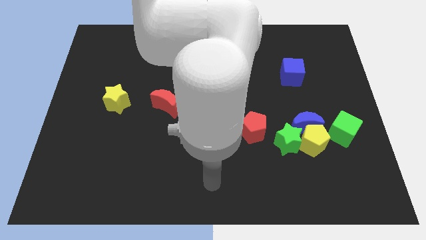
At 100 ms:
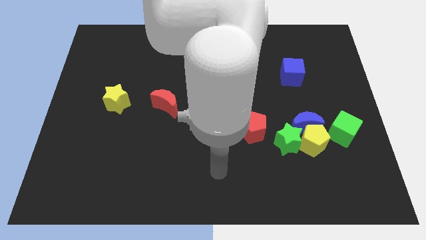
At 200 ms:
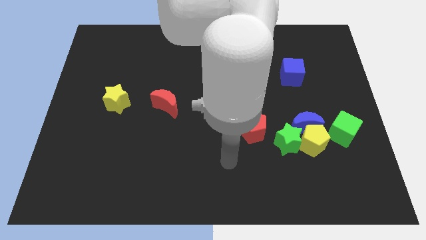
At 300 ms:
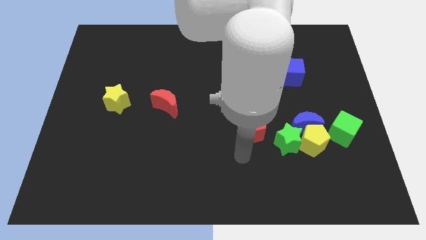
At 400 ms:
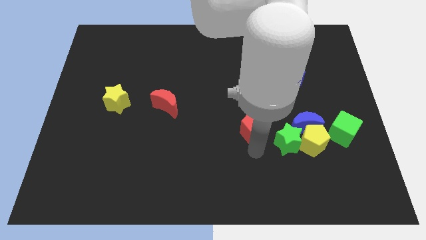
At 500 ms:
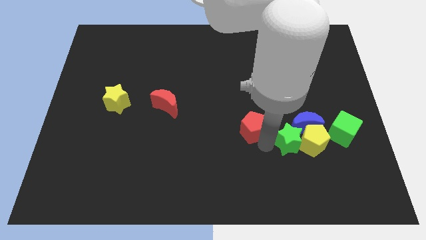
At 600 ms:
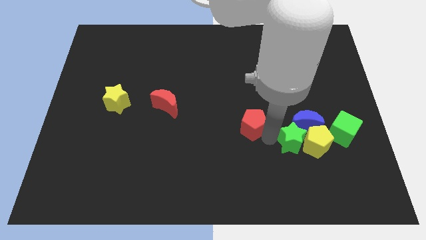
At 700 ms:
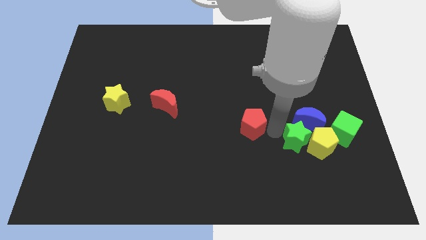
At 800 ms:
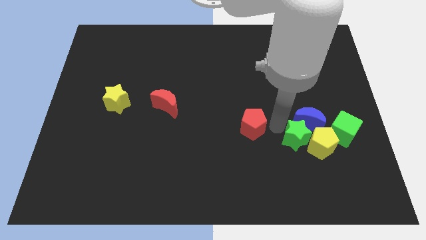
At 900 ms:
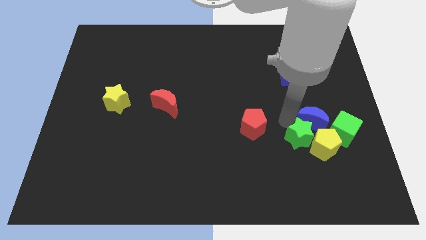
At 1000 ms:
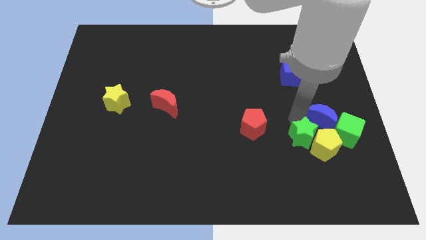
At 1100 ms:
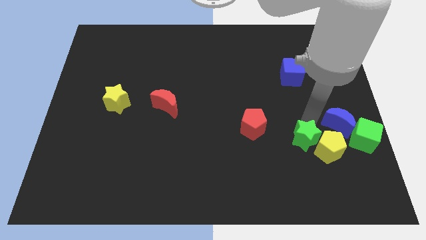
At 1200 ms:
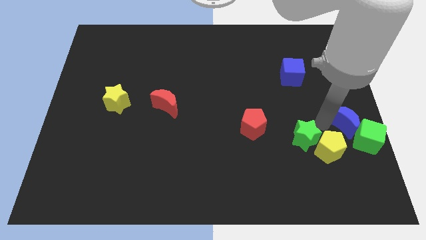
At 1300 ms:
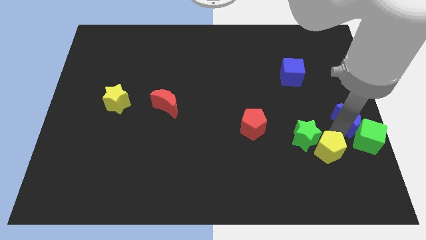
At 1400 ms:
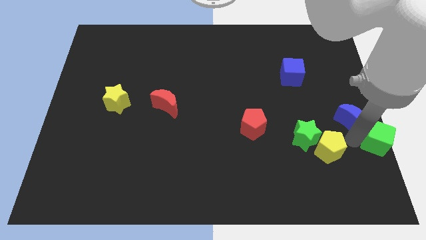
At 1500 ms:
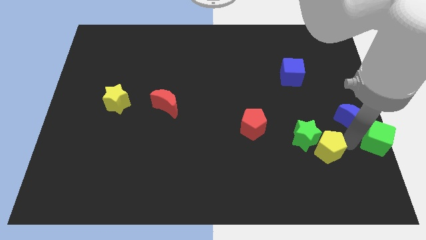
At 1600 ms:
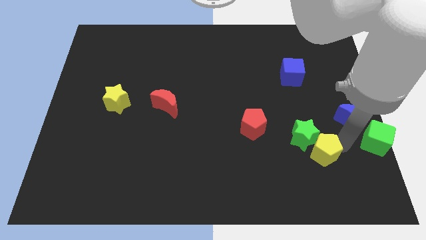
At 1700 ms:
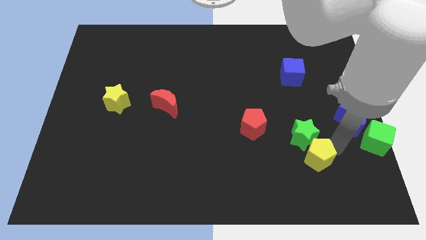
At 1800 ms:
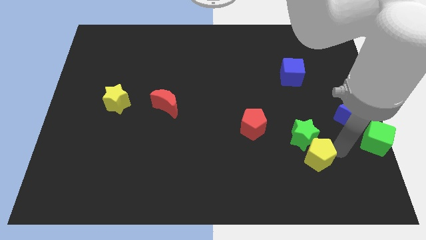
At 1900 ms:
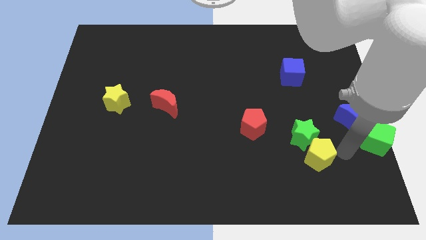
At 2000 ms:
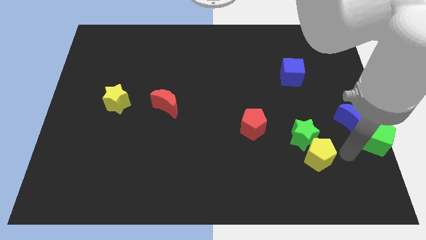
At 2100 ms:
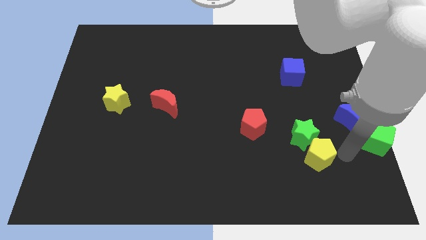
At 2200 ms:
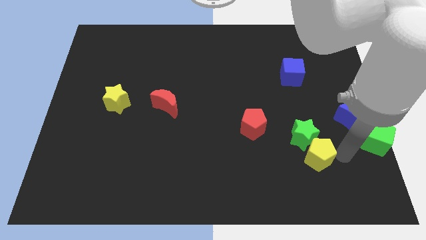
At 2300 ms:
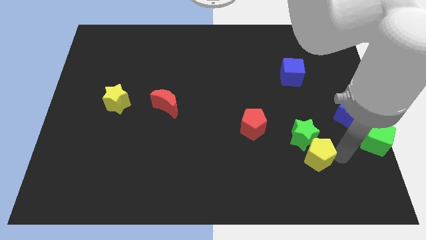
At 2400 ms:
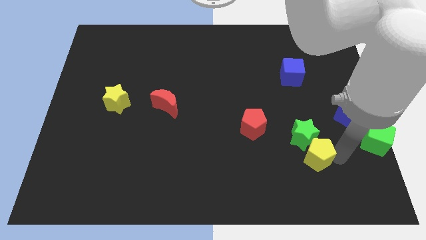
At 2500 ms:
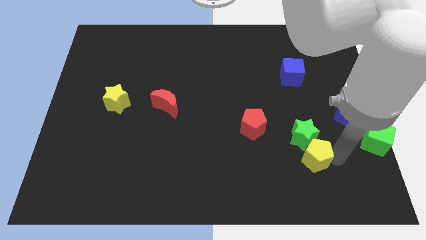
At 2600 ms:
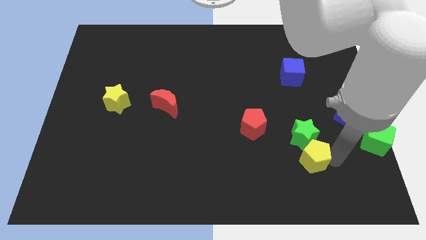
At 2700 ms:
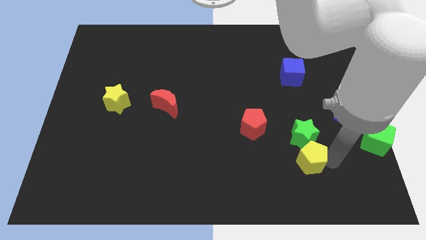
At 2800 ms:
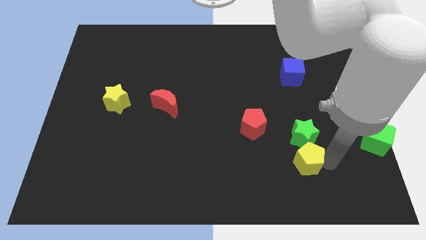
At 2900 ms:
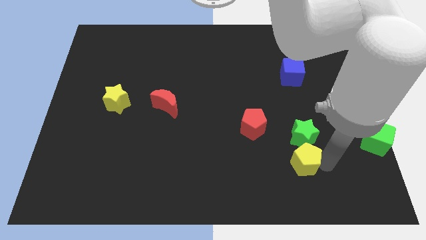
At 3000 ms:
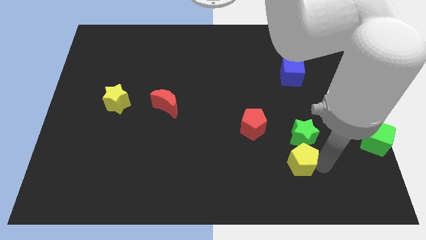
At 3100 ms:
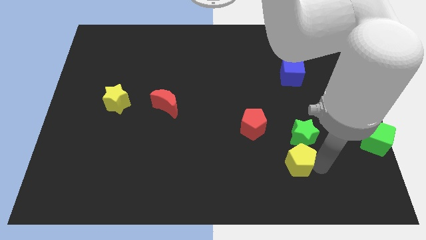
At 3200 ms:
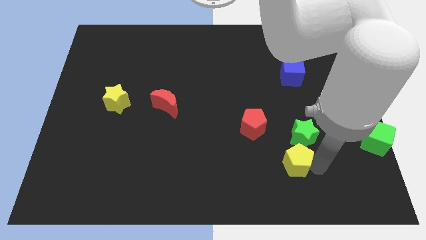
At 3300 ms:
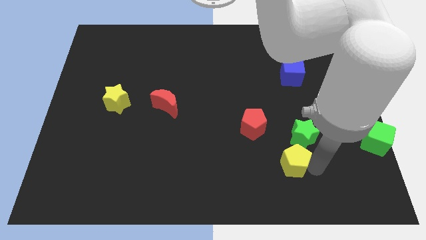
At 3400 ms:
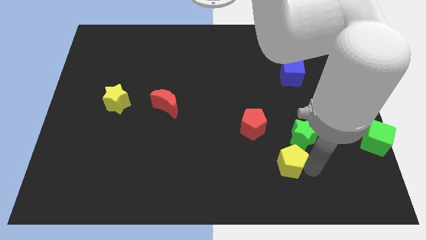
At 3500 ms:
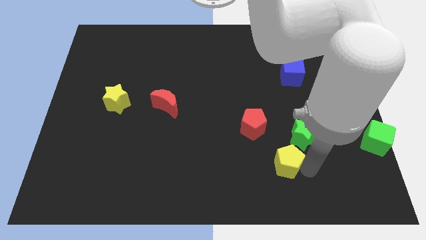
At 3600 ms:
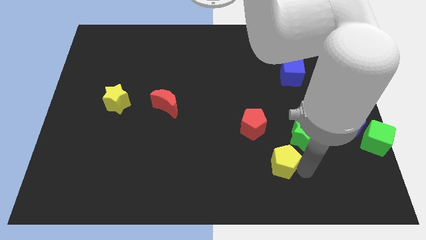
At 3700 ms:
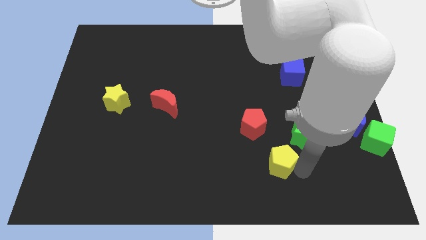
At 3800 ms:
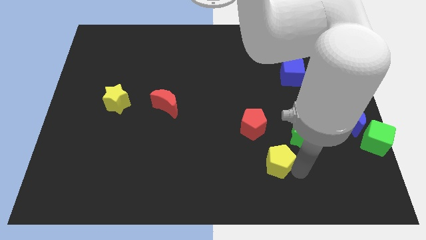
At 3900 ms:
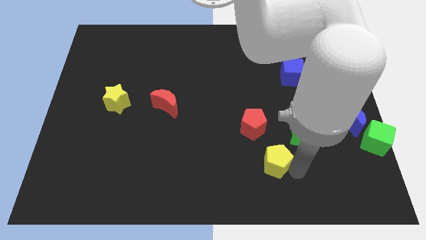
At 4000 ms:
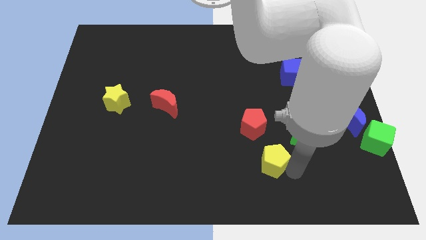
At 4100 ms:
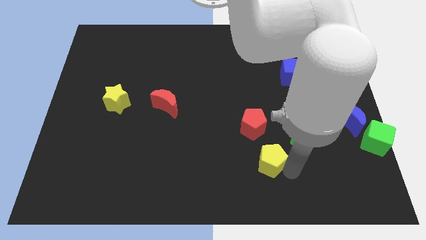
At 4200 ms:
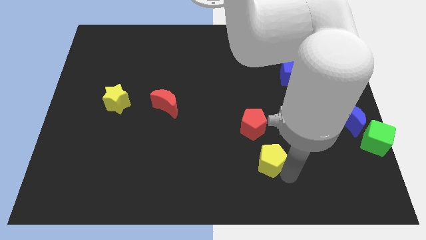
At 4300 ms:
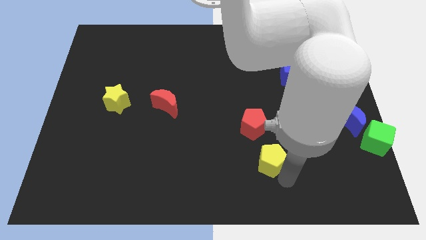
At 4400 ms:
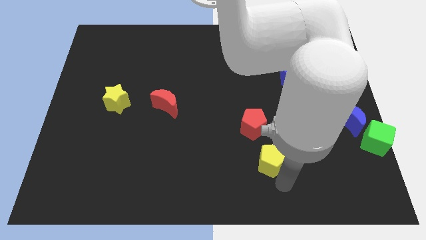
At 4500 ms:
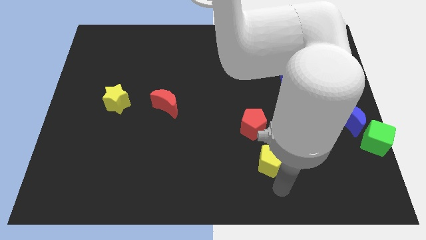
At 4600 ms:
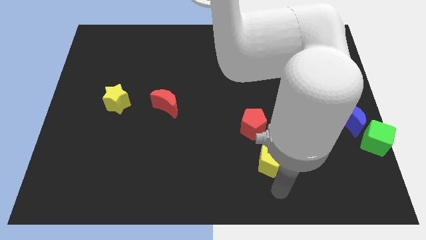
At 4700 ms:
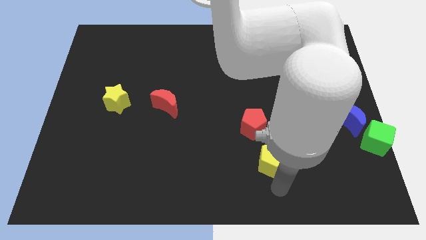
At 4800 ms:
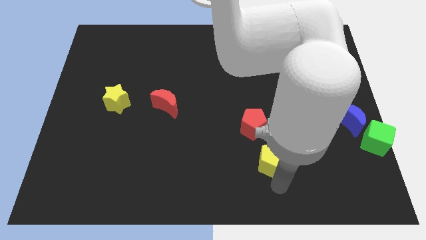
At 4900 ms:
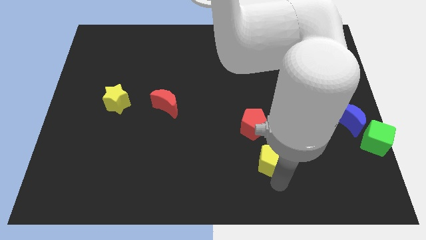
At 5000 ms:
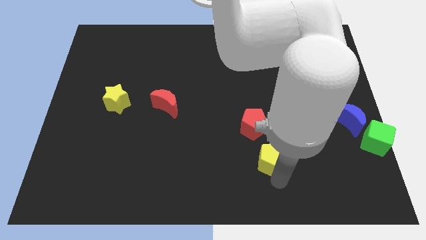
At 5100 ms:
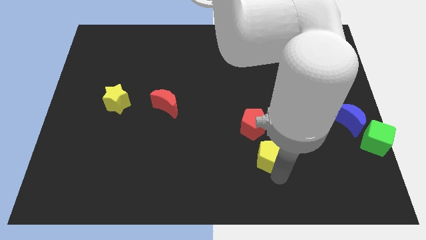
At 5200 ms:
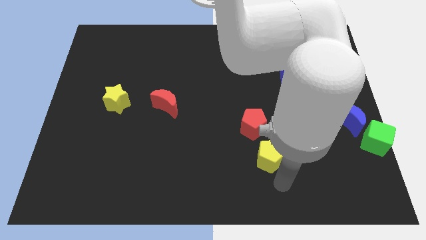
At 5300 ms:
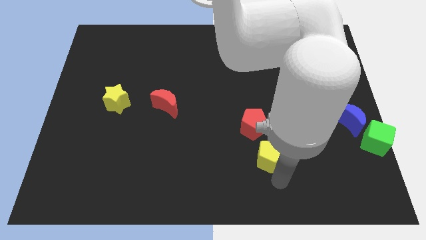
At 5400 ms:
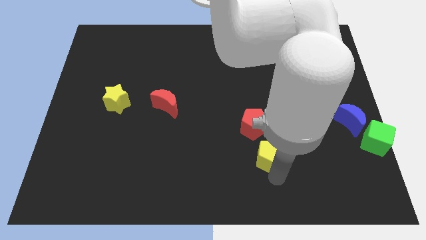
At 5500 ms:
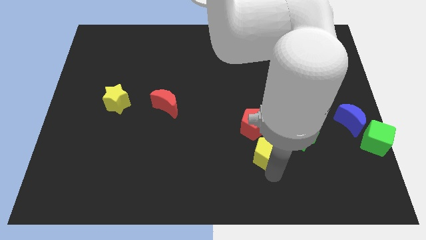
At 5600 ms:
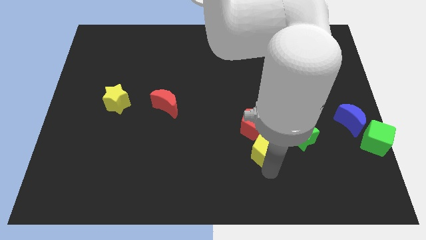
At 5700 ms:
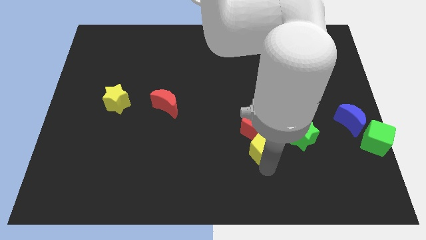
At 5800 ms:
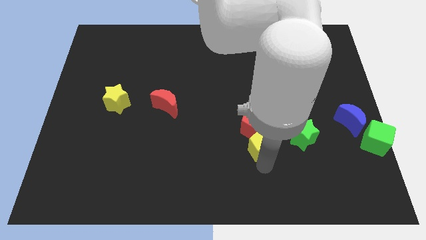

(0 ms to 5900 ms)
put the yellow pentagon towards the red pentagon

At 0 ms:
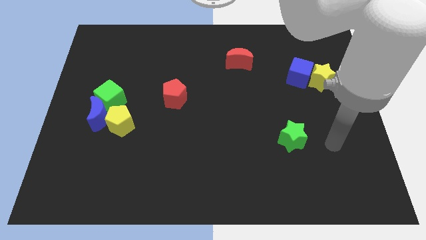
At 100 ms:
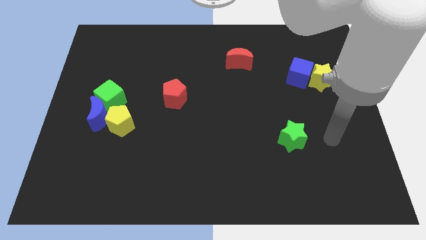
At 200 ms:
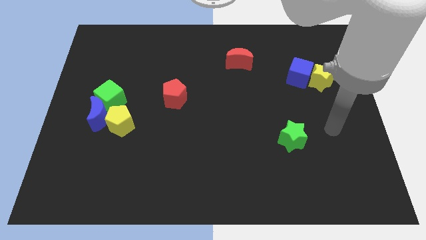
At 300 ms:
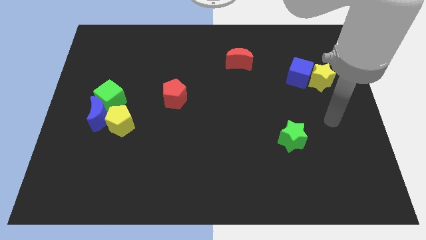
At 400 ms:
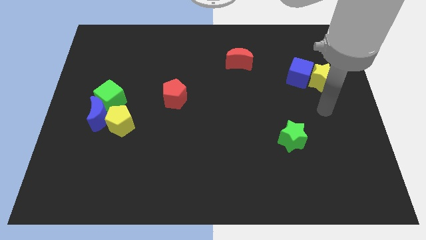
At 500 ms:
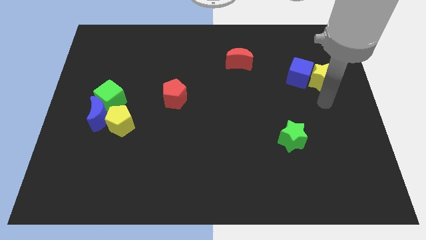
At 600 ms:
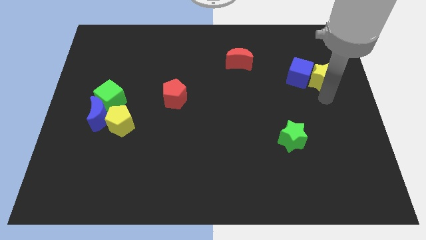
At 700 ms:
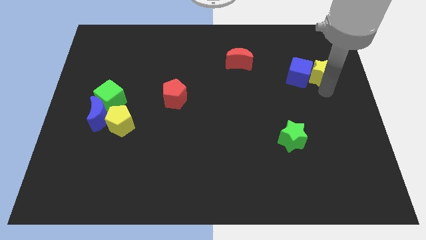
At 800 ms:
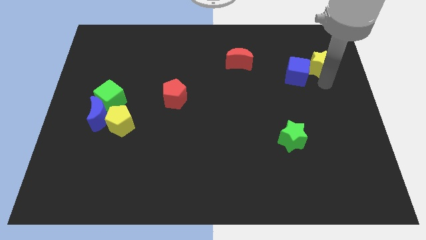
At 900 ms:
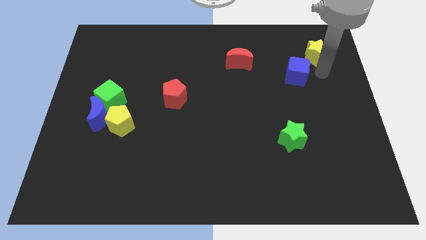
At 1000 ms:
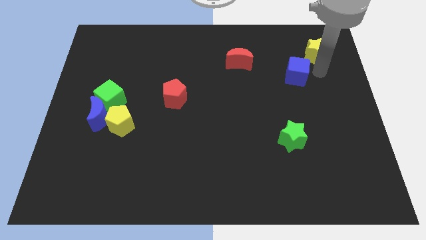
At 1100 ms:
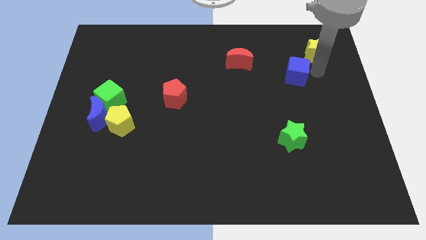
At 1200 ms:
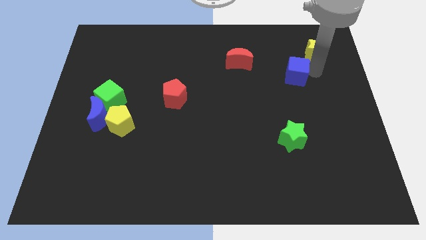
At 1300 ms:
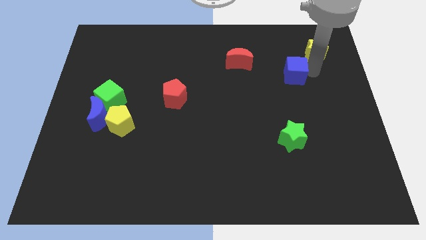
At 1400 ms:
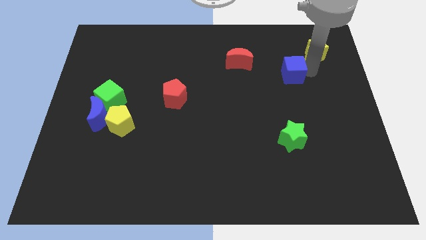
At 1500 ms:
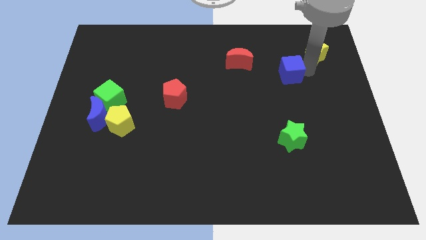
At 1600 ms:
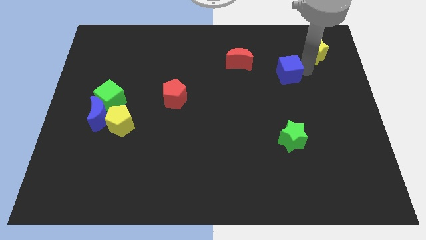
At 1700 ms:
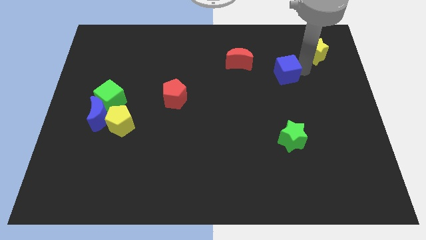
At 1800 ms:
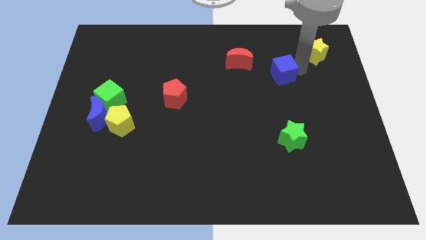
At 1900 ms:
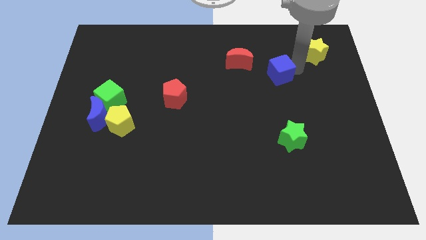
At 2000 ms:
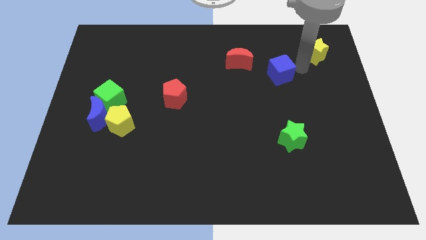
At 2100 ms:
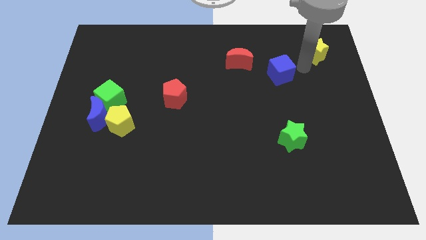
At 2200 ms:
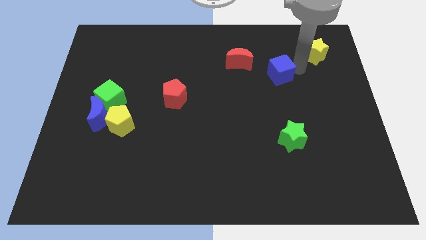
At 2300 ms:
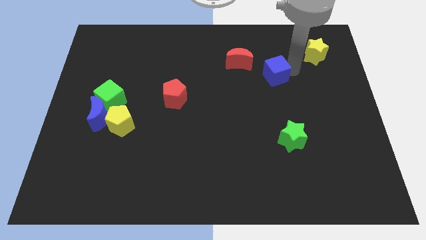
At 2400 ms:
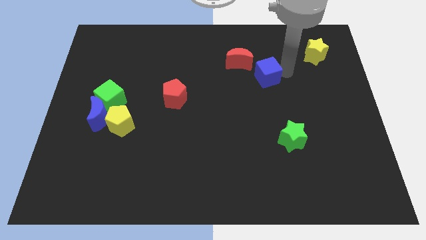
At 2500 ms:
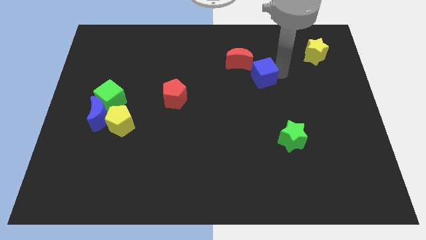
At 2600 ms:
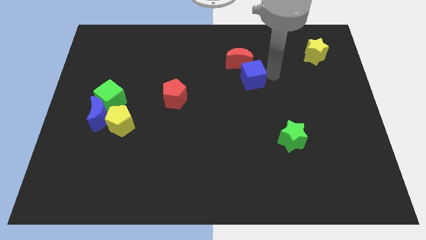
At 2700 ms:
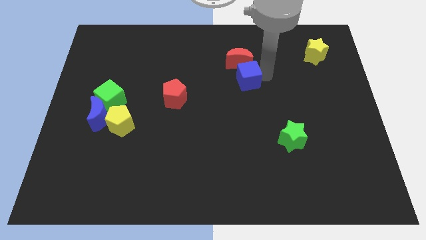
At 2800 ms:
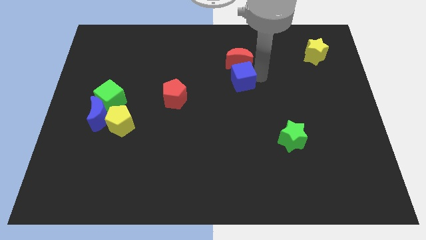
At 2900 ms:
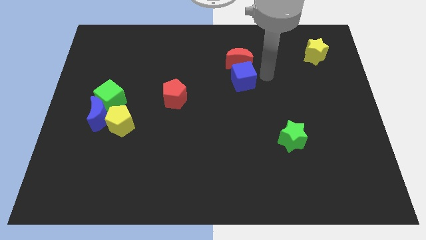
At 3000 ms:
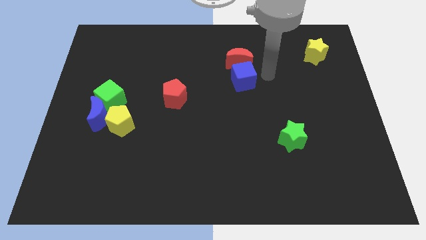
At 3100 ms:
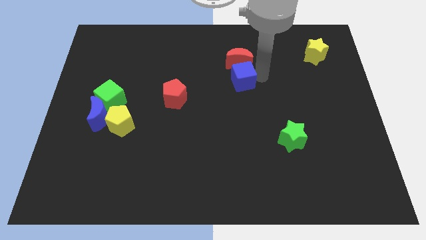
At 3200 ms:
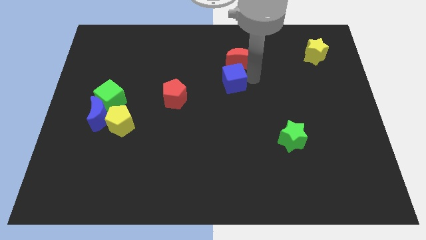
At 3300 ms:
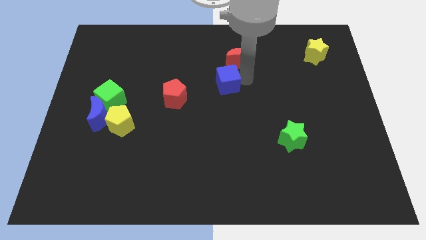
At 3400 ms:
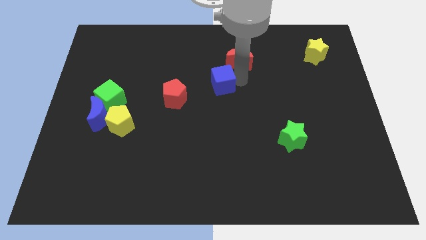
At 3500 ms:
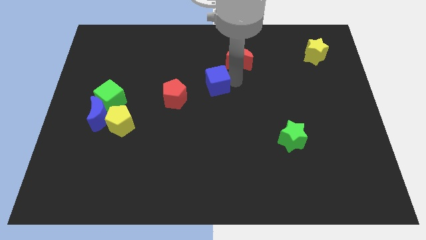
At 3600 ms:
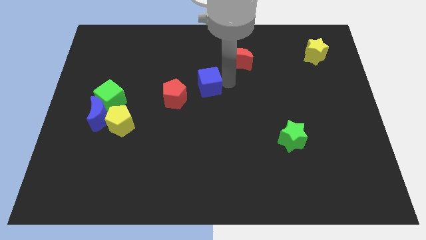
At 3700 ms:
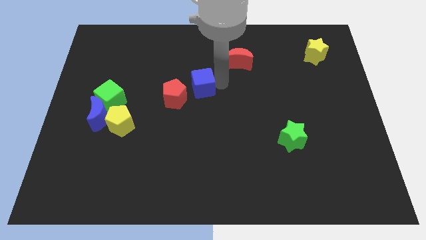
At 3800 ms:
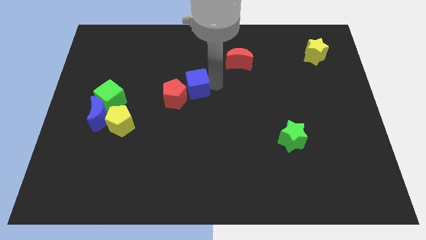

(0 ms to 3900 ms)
put the blue cube close to the red pentagon
